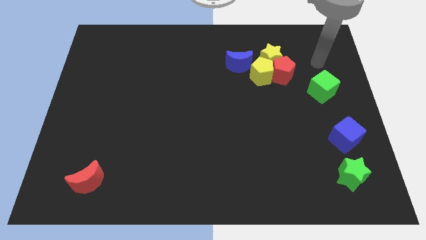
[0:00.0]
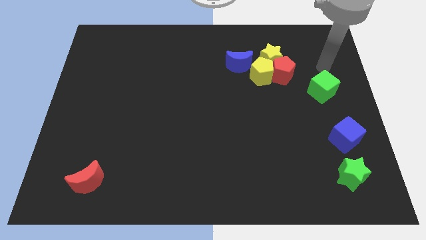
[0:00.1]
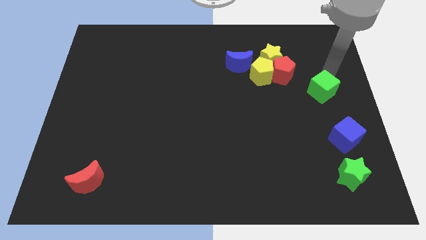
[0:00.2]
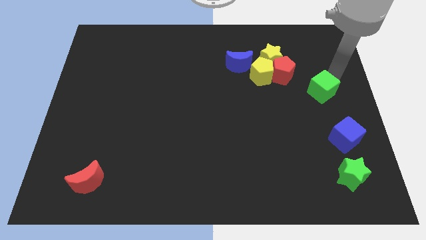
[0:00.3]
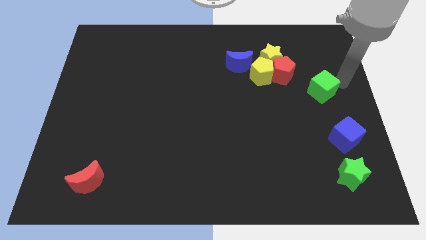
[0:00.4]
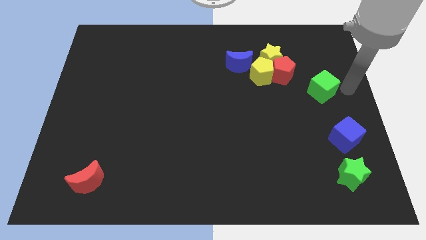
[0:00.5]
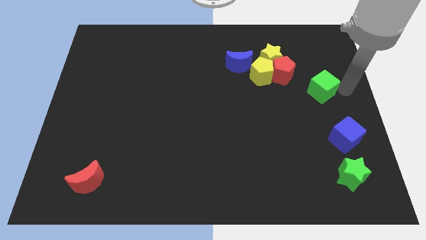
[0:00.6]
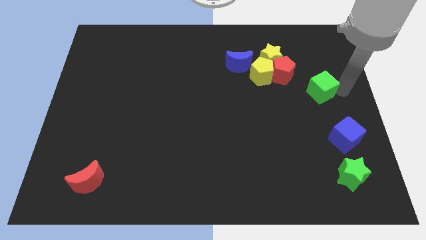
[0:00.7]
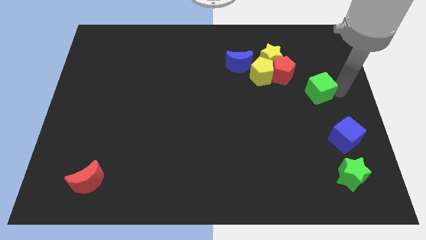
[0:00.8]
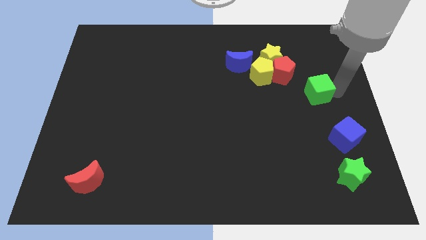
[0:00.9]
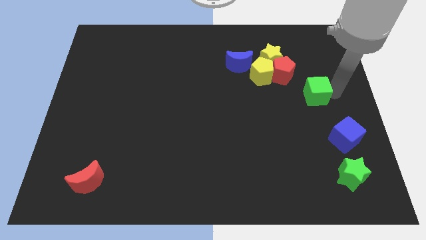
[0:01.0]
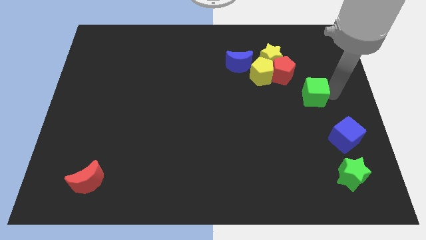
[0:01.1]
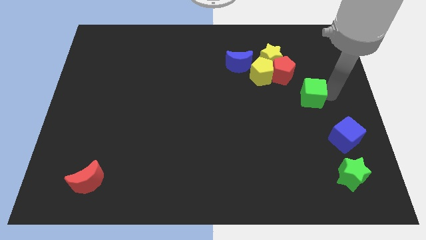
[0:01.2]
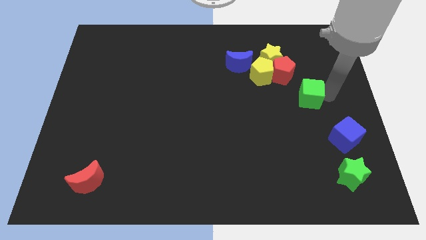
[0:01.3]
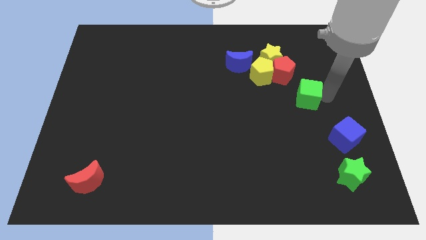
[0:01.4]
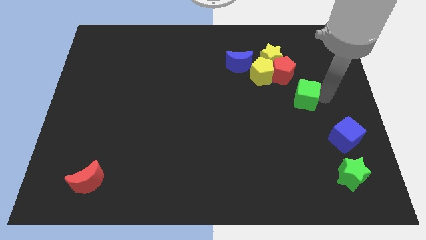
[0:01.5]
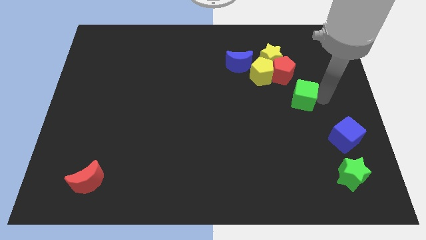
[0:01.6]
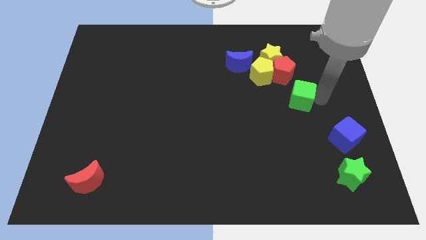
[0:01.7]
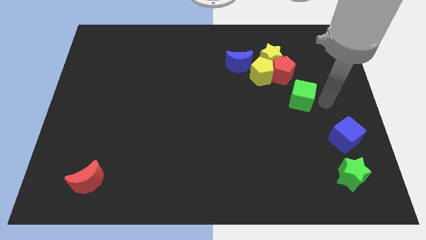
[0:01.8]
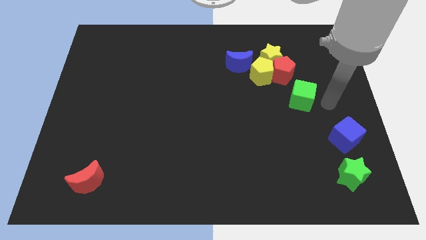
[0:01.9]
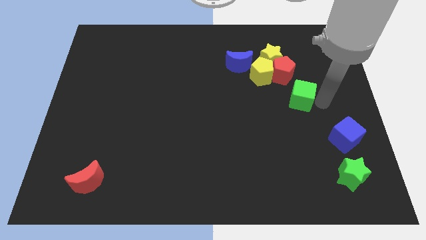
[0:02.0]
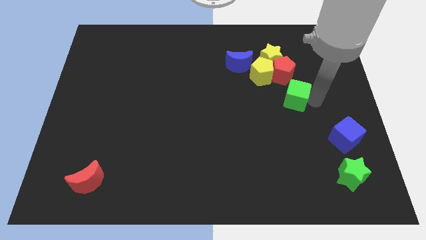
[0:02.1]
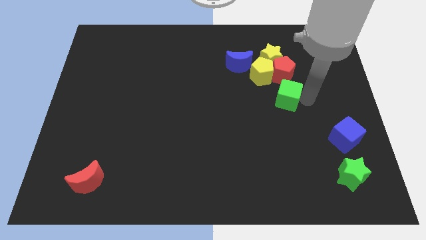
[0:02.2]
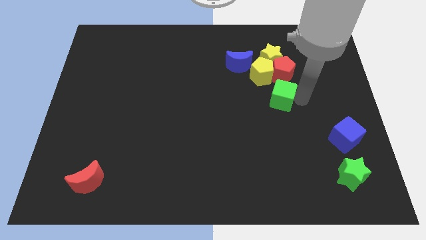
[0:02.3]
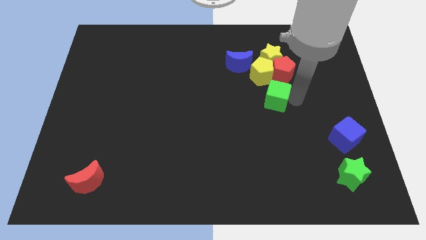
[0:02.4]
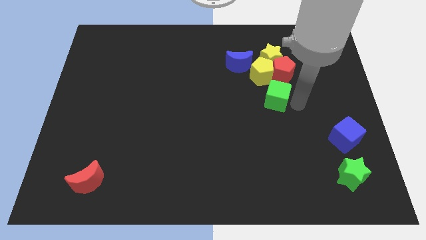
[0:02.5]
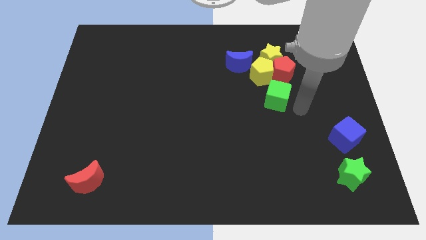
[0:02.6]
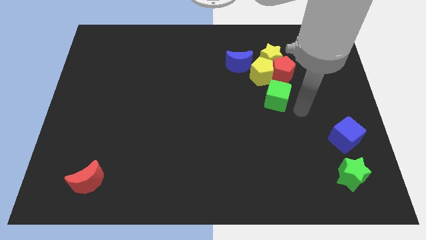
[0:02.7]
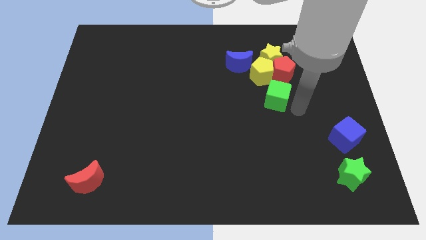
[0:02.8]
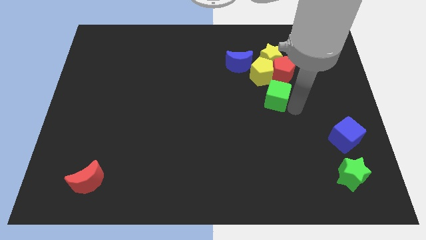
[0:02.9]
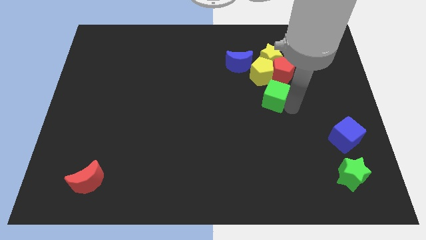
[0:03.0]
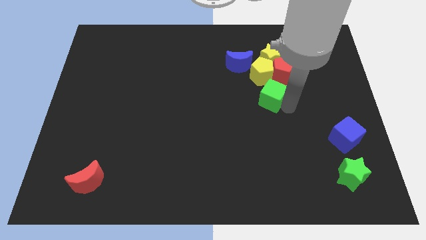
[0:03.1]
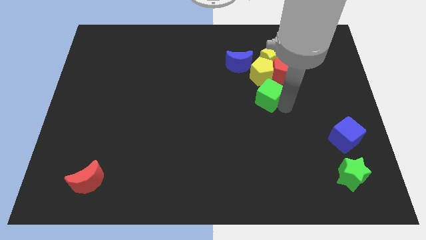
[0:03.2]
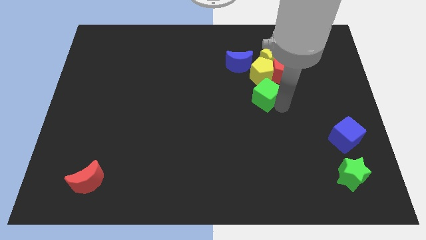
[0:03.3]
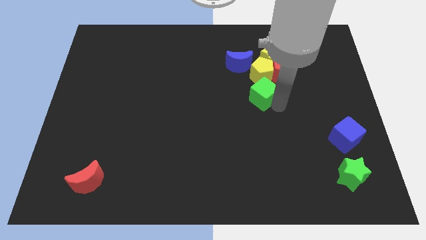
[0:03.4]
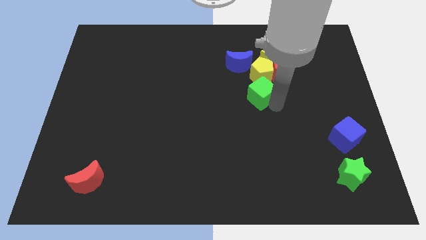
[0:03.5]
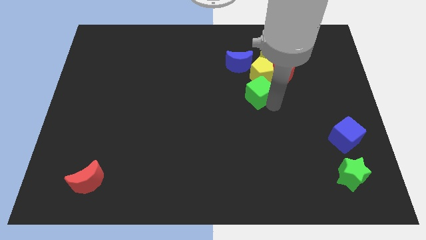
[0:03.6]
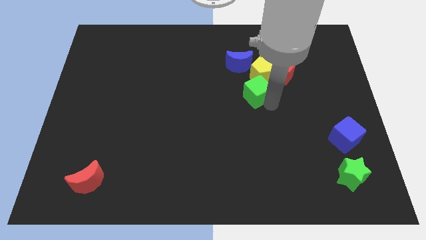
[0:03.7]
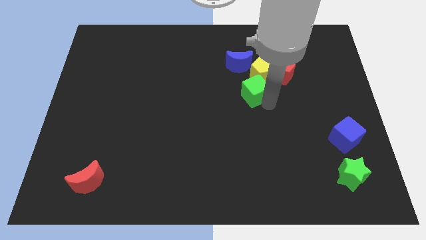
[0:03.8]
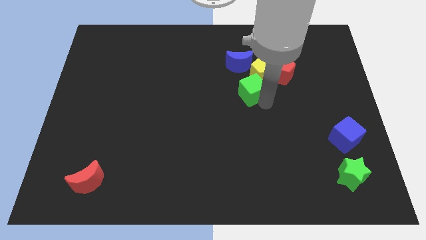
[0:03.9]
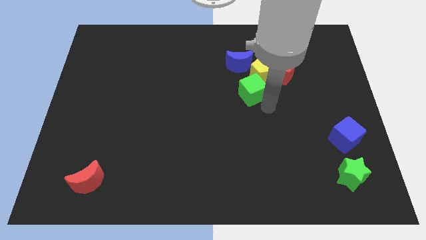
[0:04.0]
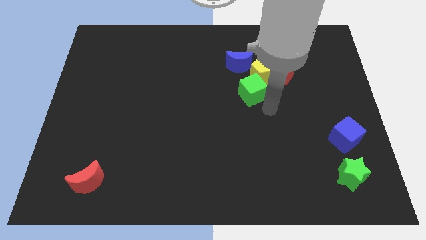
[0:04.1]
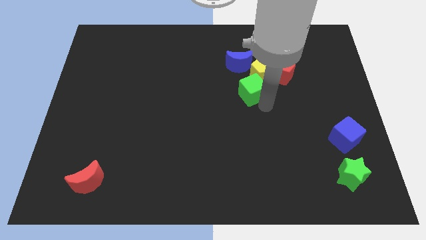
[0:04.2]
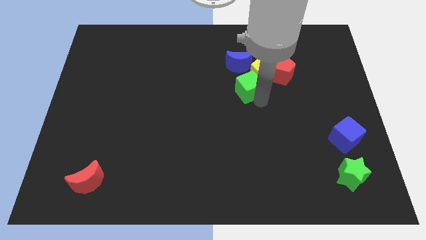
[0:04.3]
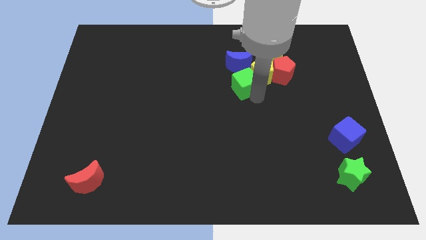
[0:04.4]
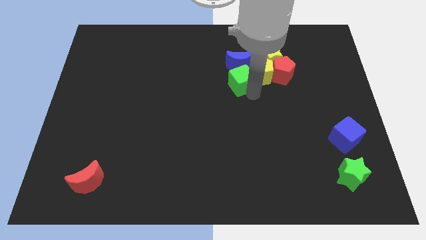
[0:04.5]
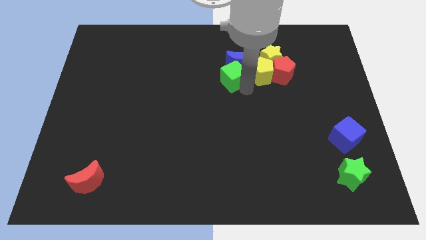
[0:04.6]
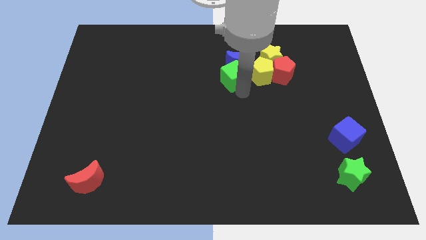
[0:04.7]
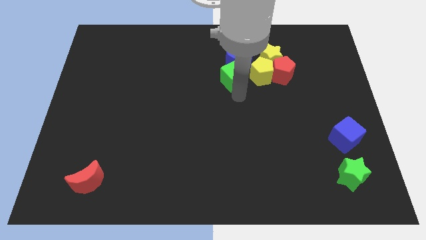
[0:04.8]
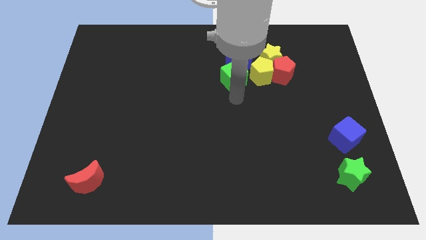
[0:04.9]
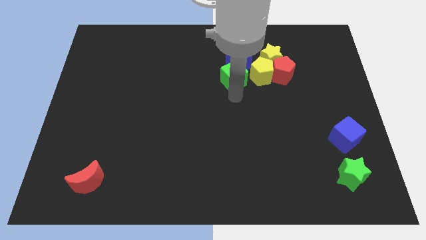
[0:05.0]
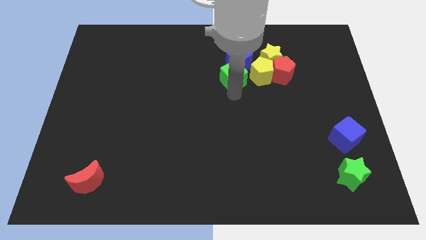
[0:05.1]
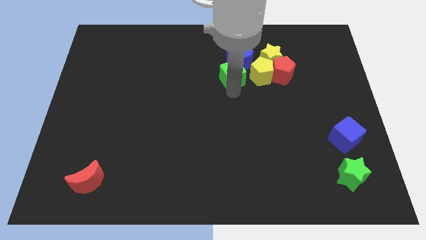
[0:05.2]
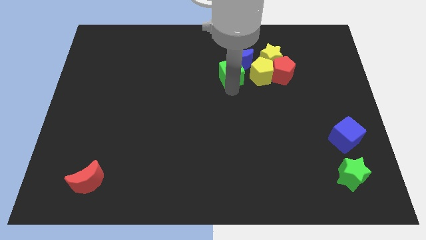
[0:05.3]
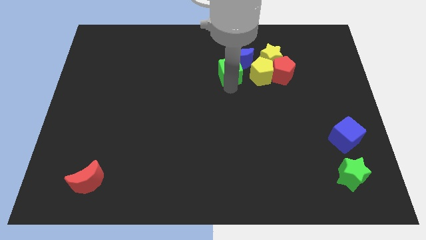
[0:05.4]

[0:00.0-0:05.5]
put the green cube just left of the yellow star

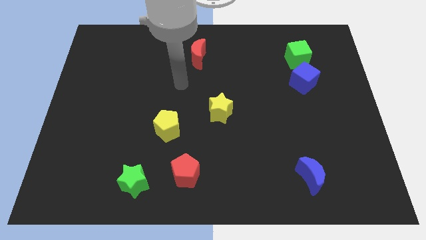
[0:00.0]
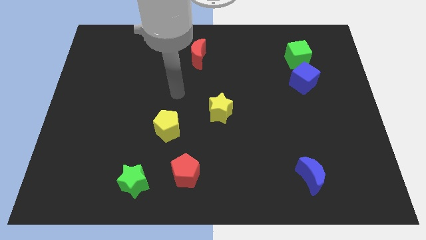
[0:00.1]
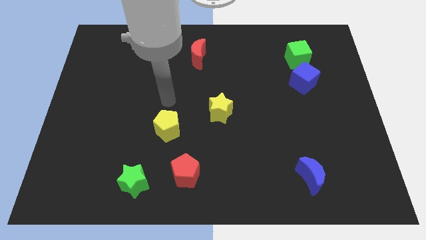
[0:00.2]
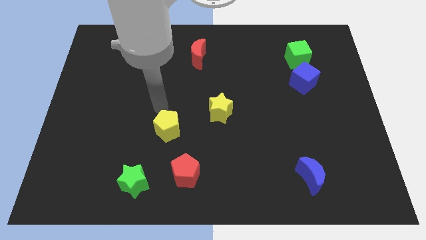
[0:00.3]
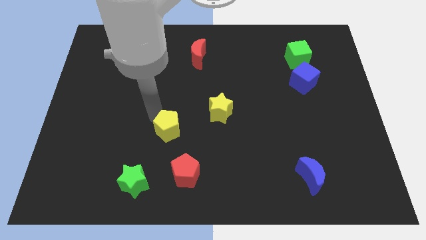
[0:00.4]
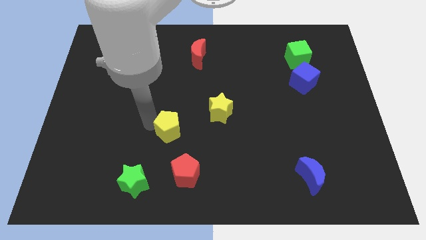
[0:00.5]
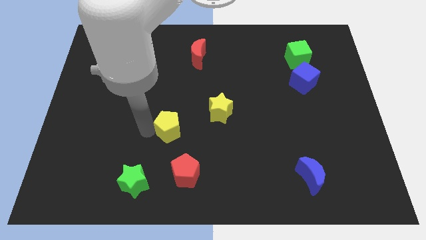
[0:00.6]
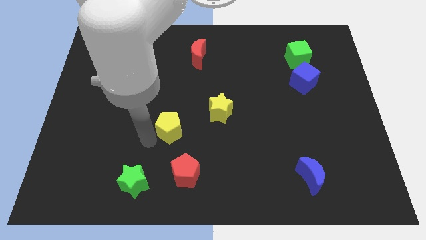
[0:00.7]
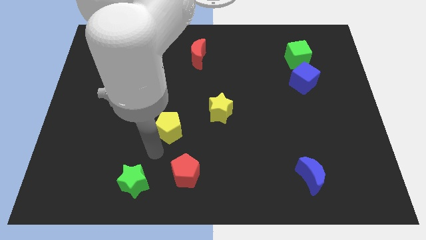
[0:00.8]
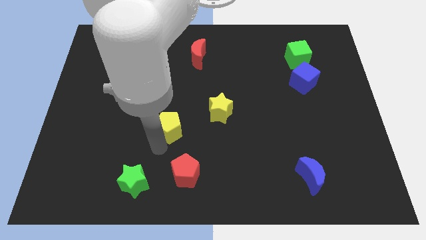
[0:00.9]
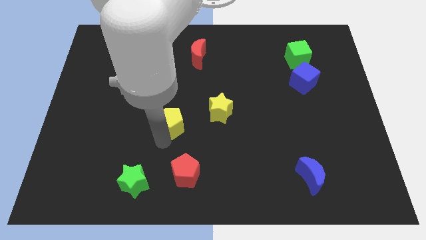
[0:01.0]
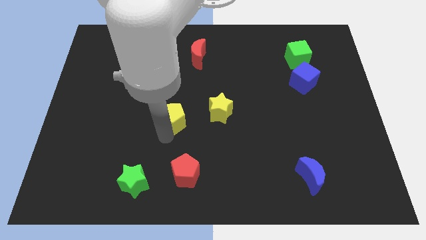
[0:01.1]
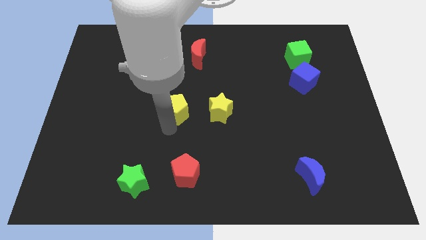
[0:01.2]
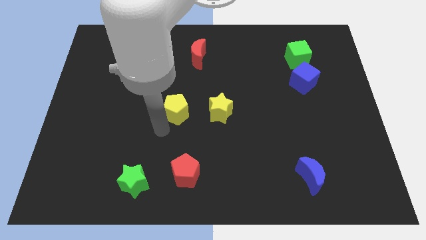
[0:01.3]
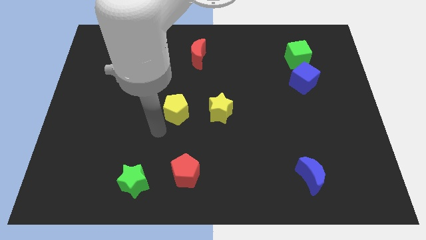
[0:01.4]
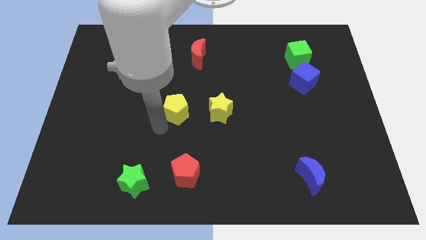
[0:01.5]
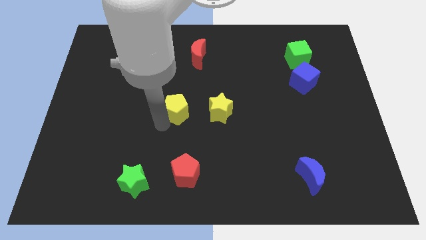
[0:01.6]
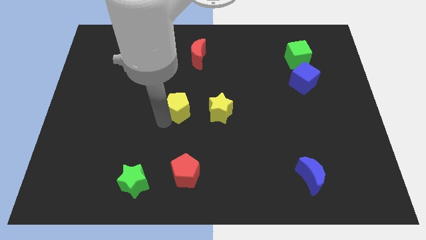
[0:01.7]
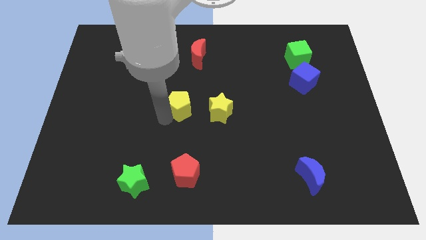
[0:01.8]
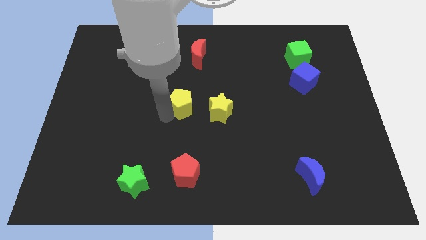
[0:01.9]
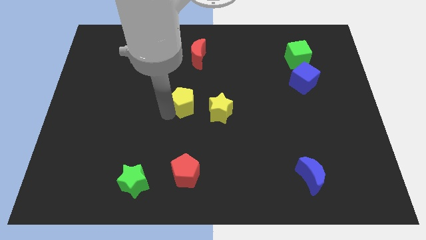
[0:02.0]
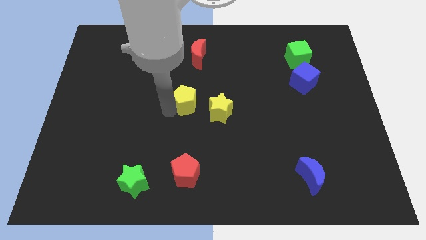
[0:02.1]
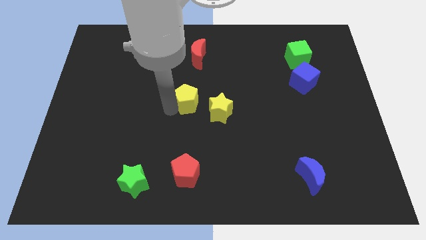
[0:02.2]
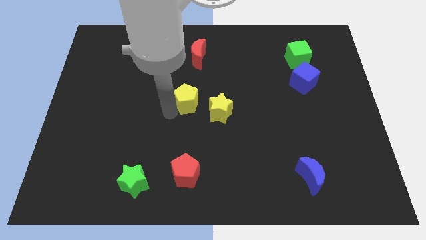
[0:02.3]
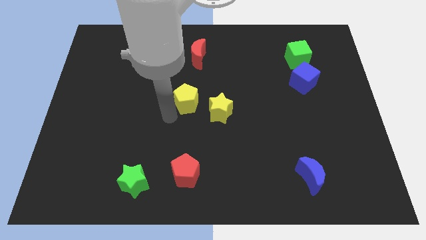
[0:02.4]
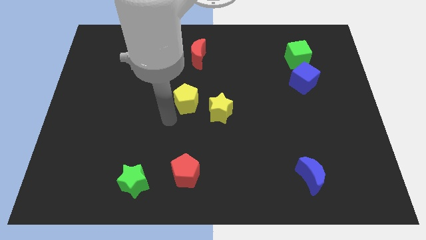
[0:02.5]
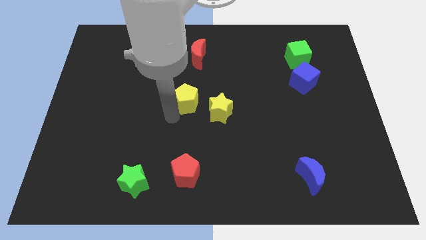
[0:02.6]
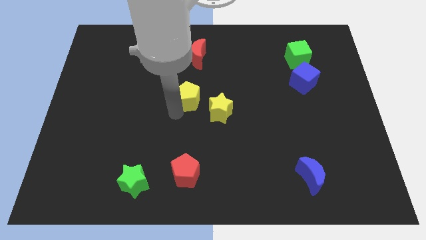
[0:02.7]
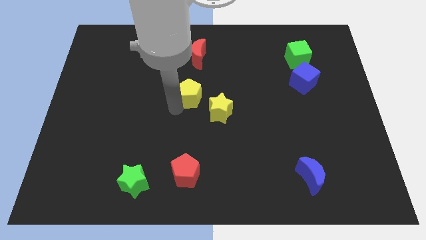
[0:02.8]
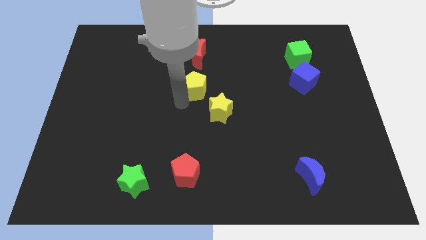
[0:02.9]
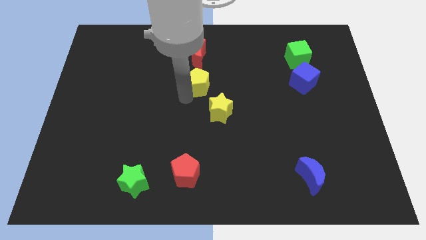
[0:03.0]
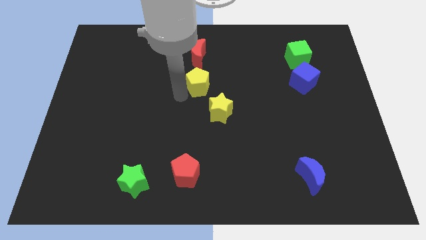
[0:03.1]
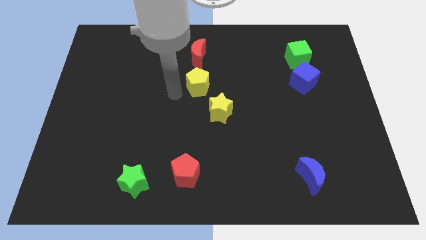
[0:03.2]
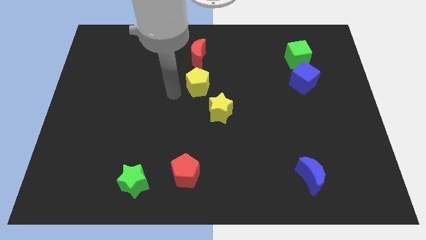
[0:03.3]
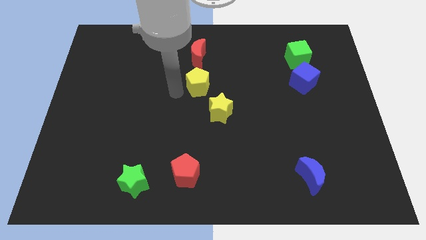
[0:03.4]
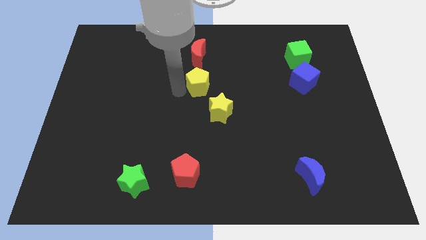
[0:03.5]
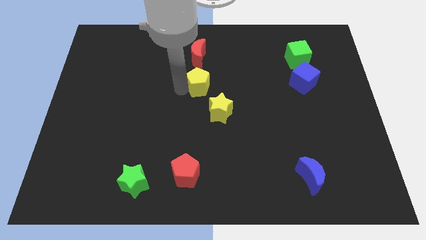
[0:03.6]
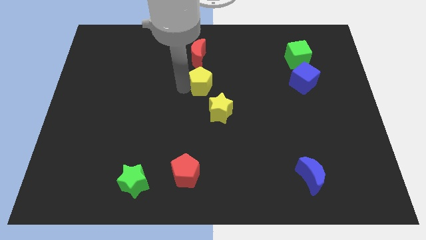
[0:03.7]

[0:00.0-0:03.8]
slide the yellow pentagon to the top of the yellow star
